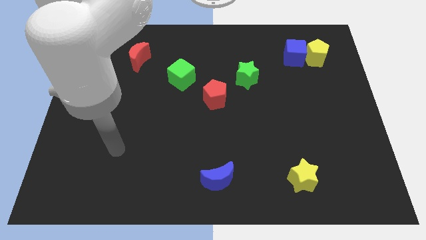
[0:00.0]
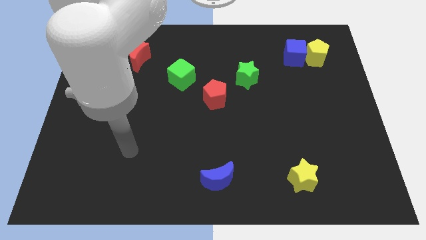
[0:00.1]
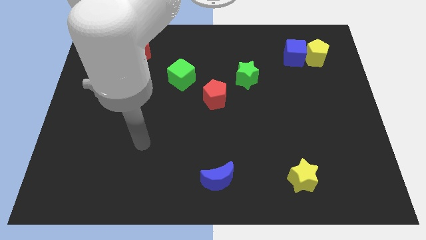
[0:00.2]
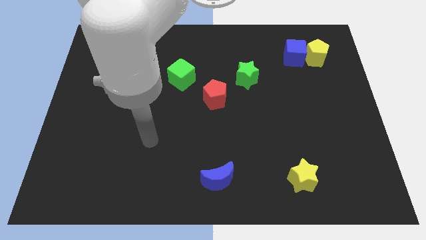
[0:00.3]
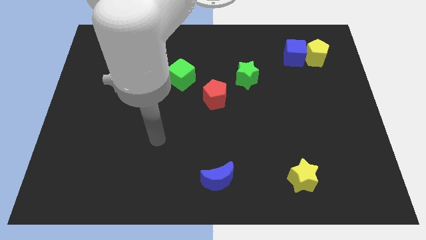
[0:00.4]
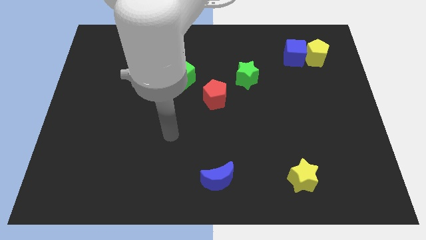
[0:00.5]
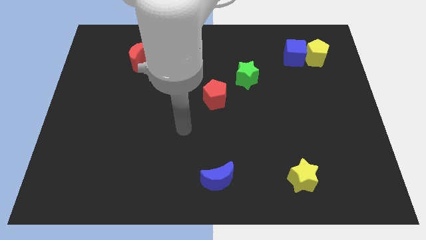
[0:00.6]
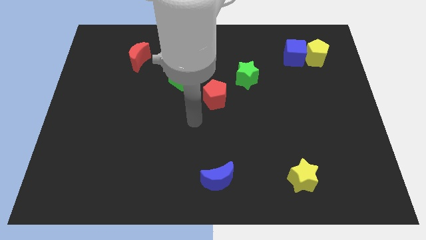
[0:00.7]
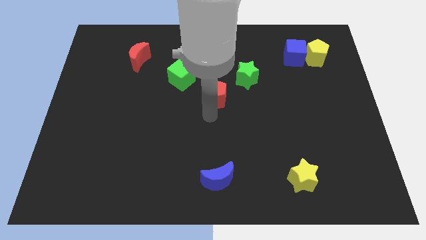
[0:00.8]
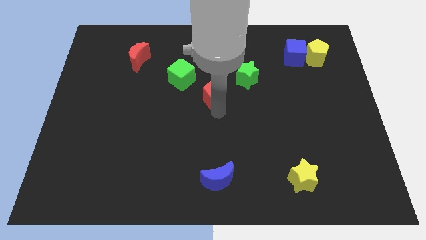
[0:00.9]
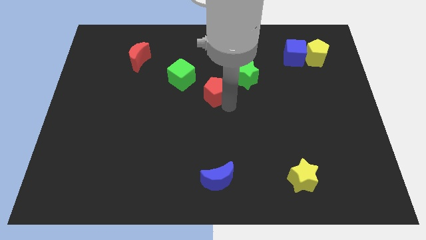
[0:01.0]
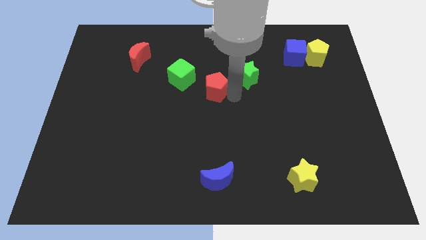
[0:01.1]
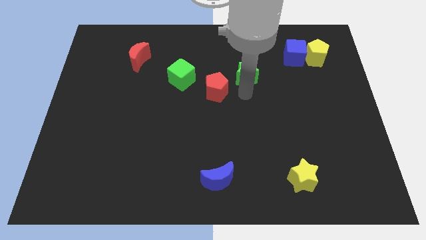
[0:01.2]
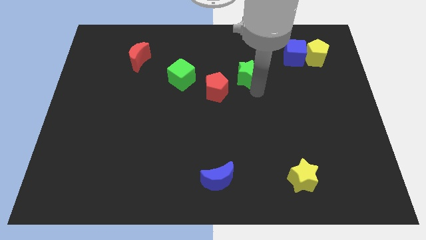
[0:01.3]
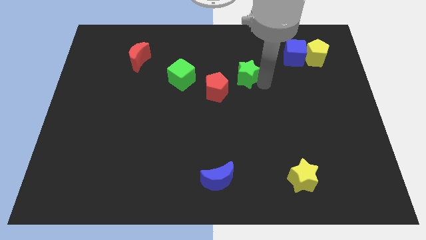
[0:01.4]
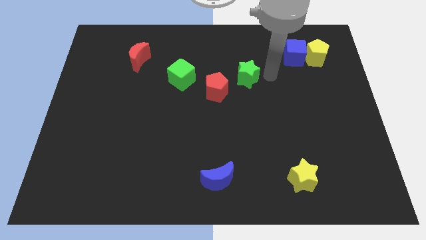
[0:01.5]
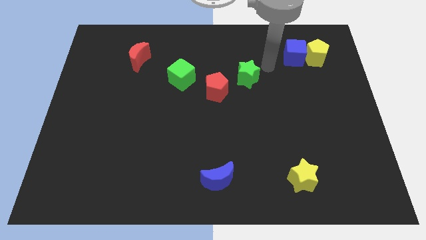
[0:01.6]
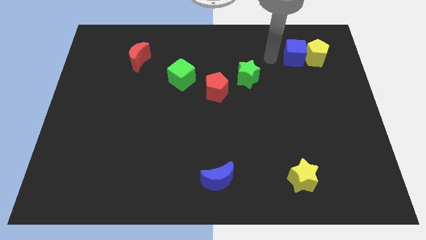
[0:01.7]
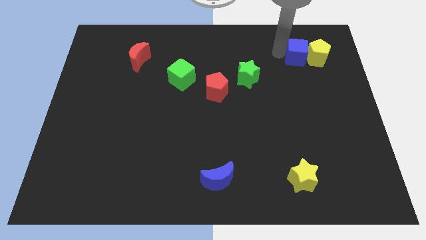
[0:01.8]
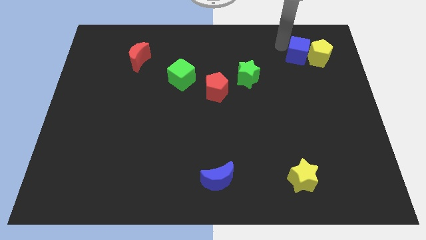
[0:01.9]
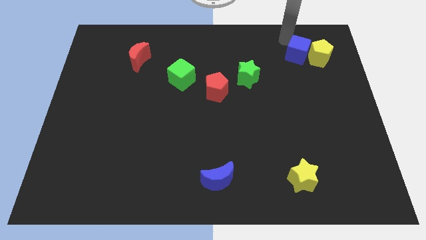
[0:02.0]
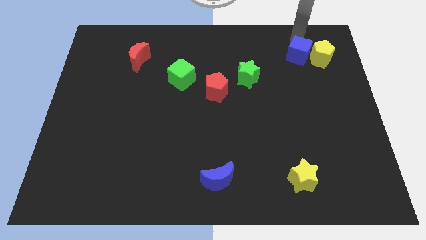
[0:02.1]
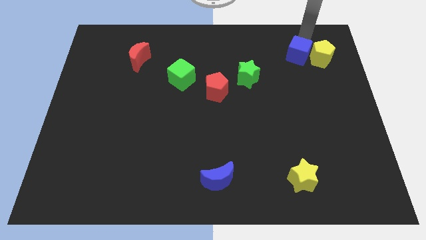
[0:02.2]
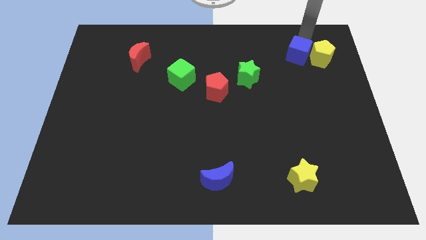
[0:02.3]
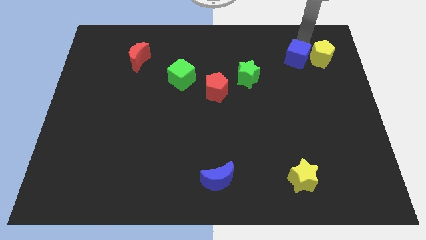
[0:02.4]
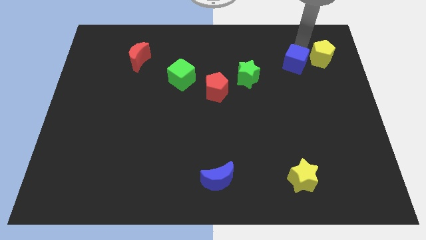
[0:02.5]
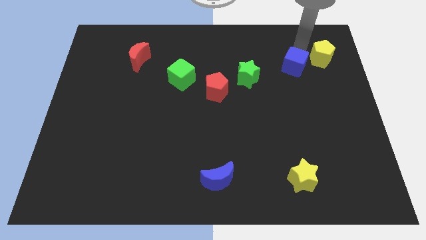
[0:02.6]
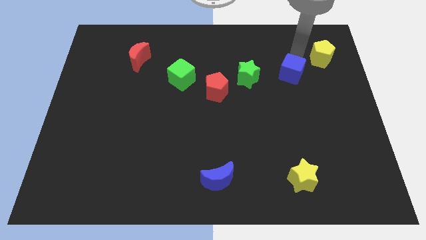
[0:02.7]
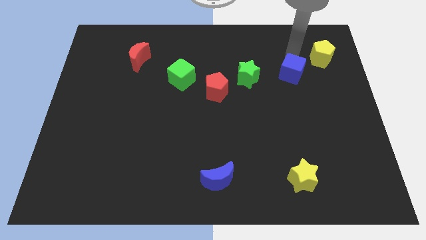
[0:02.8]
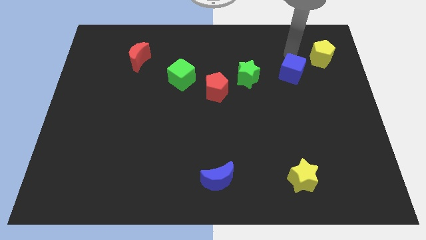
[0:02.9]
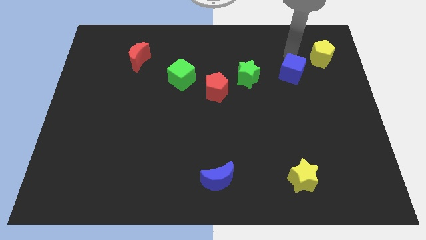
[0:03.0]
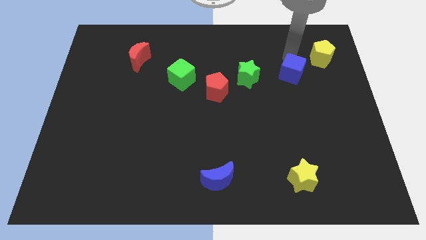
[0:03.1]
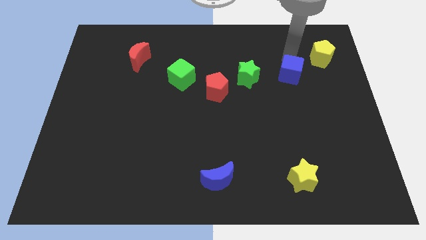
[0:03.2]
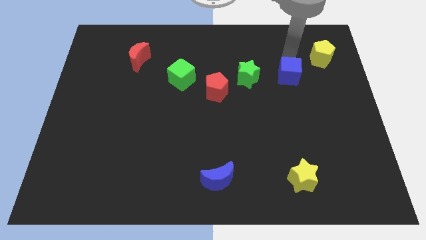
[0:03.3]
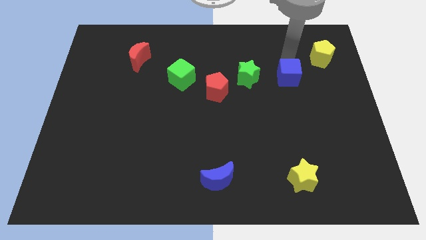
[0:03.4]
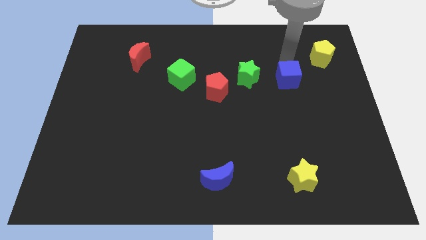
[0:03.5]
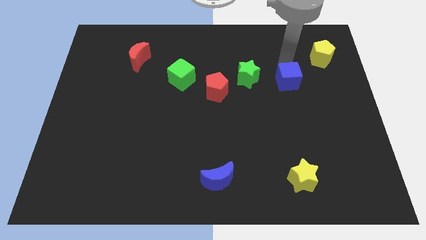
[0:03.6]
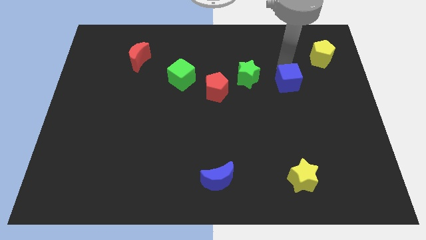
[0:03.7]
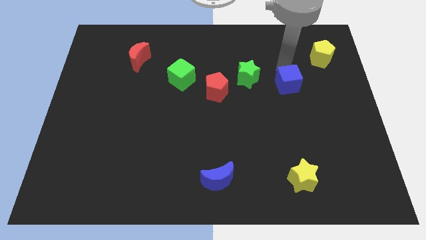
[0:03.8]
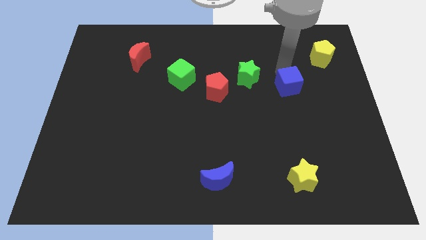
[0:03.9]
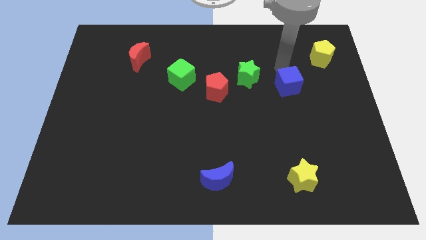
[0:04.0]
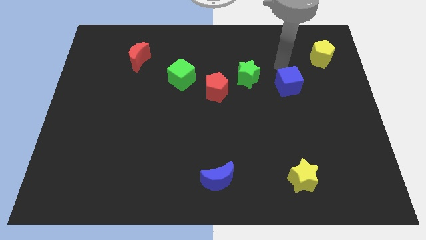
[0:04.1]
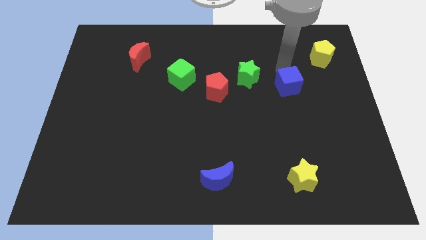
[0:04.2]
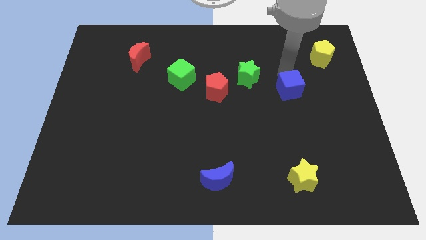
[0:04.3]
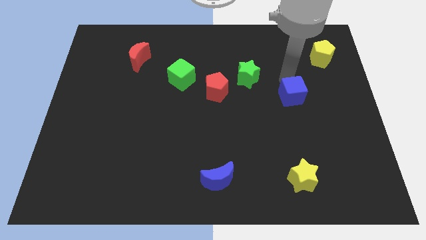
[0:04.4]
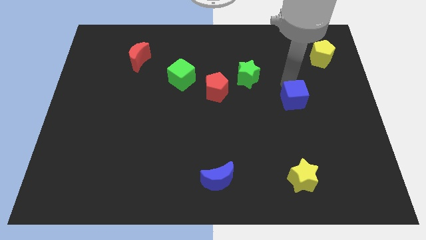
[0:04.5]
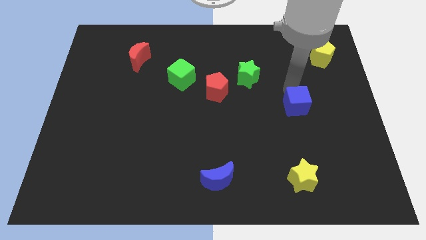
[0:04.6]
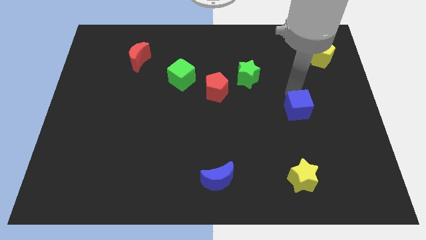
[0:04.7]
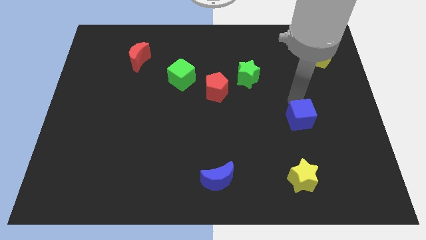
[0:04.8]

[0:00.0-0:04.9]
push the blue cube downwards

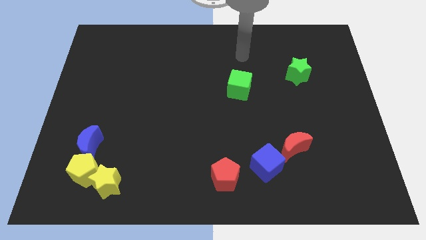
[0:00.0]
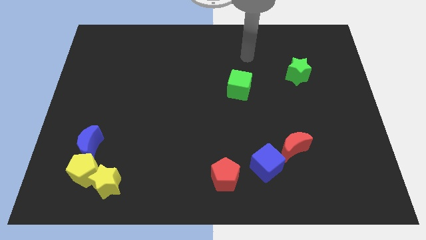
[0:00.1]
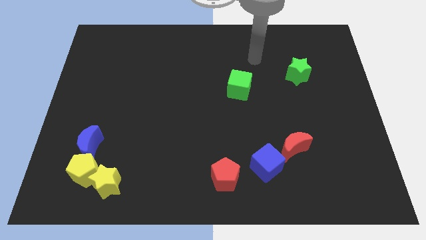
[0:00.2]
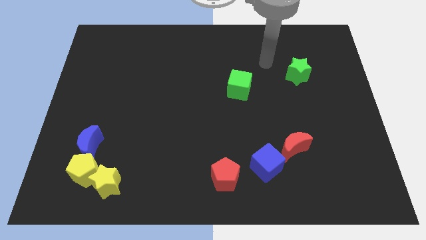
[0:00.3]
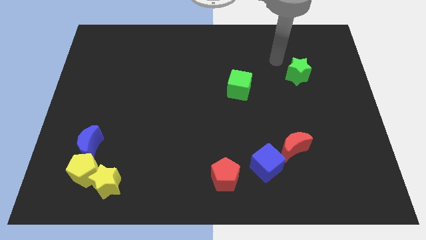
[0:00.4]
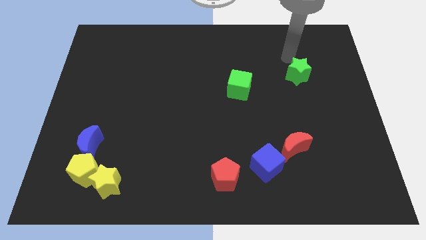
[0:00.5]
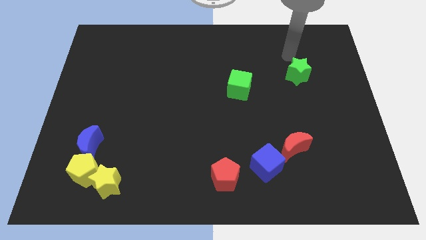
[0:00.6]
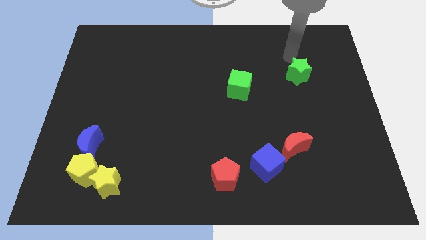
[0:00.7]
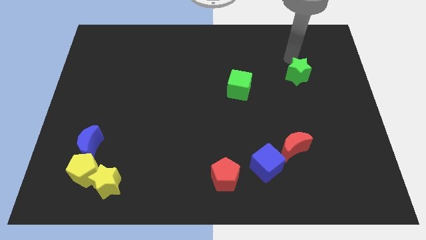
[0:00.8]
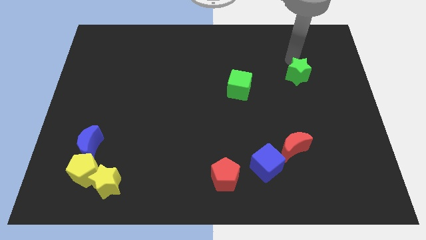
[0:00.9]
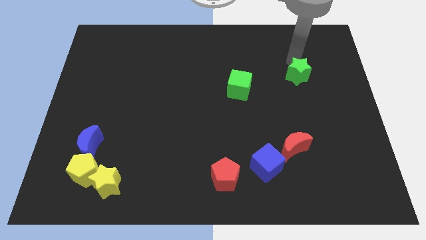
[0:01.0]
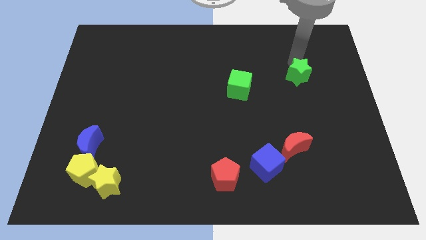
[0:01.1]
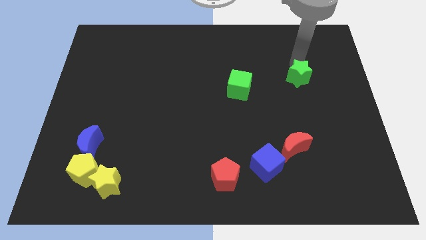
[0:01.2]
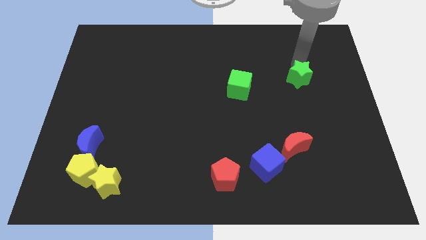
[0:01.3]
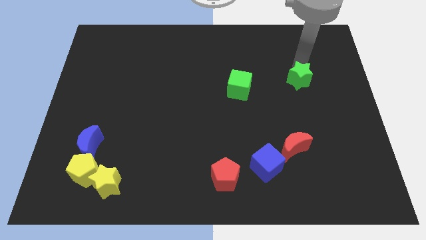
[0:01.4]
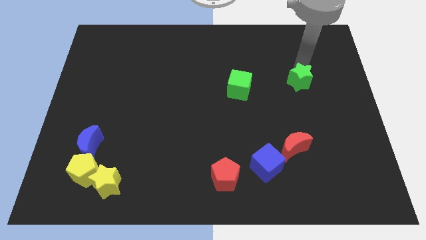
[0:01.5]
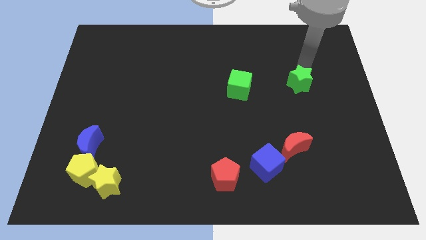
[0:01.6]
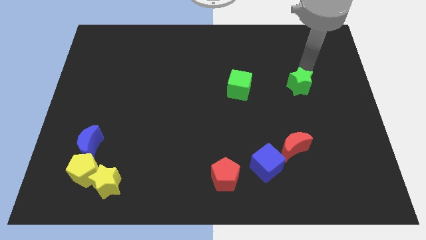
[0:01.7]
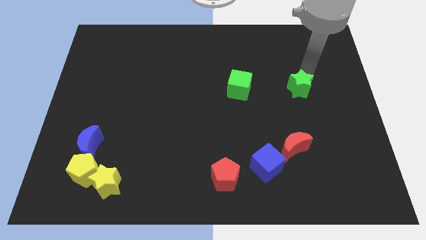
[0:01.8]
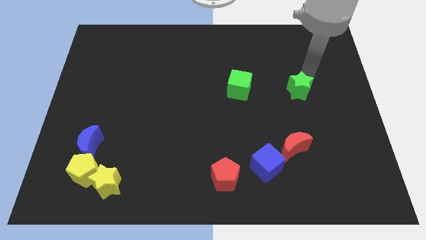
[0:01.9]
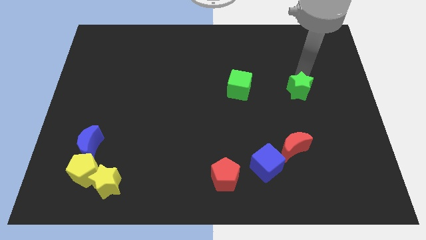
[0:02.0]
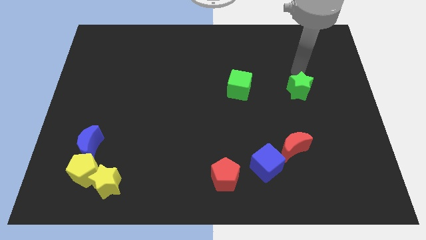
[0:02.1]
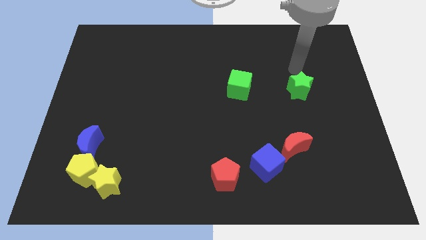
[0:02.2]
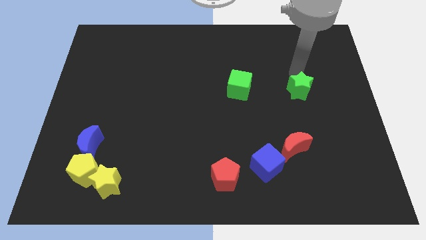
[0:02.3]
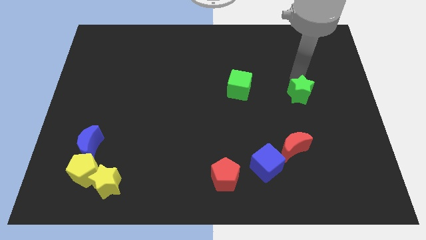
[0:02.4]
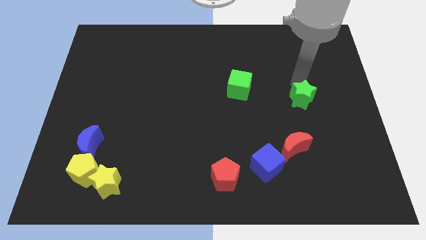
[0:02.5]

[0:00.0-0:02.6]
slightly slide the green star down

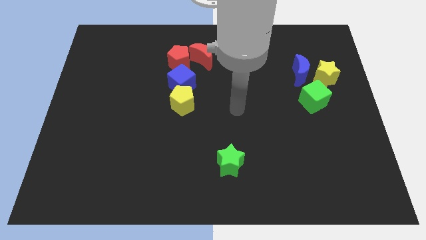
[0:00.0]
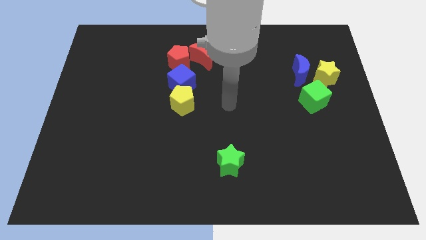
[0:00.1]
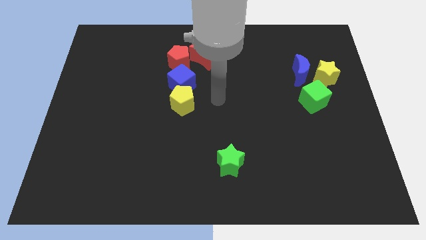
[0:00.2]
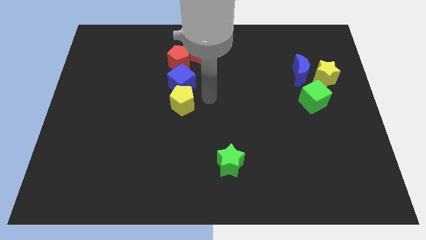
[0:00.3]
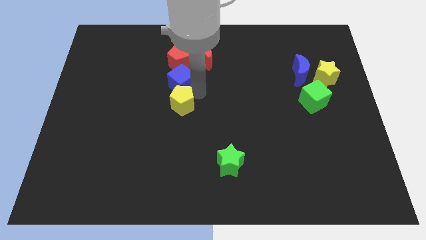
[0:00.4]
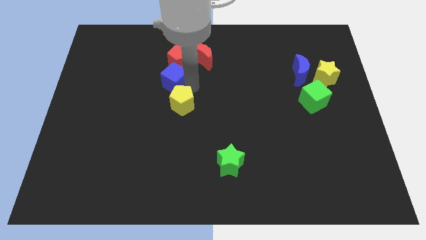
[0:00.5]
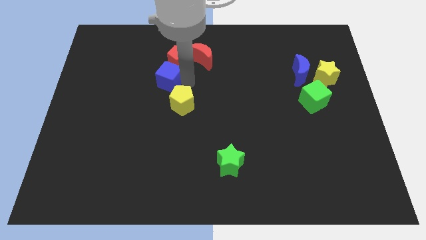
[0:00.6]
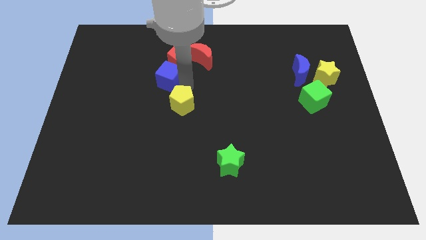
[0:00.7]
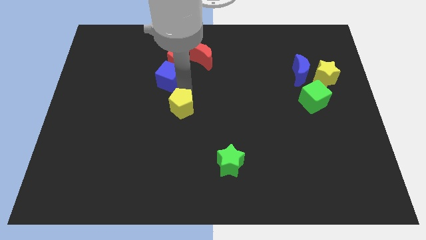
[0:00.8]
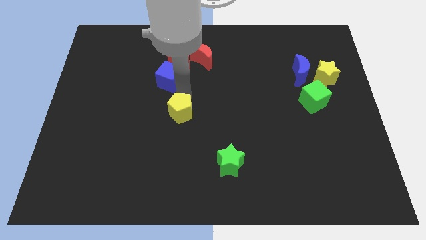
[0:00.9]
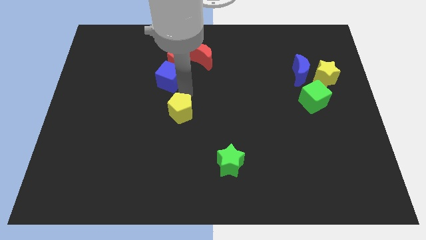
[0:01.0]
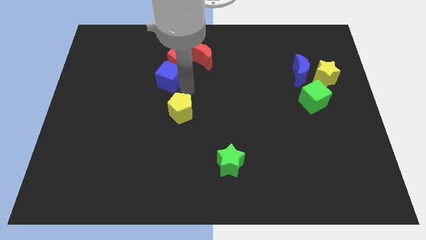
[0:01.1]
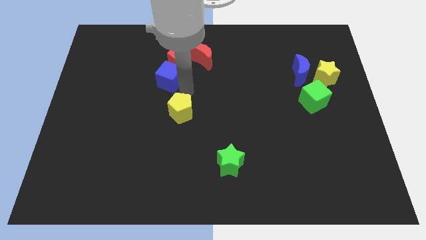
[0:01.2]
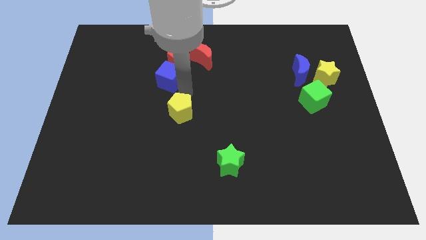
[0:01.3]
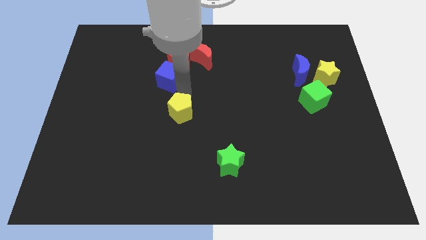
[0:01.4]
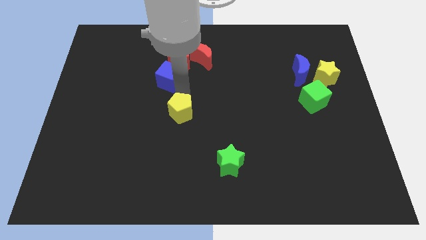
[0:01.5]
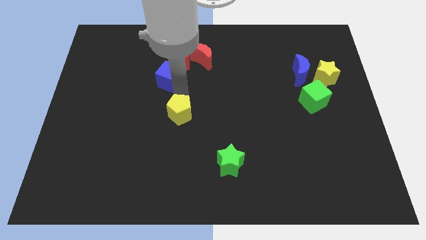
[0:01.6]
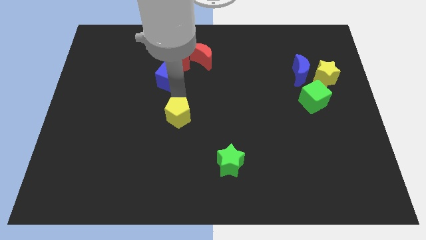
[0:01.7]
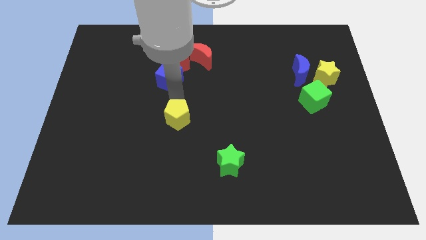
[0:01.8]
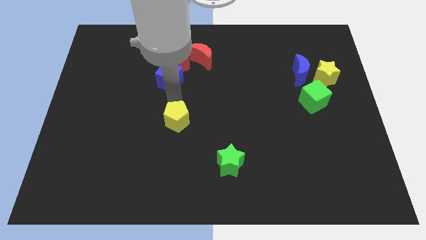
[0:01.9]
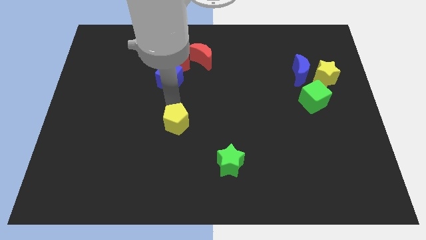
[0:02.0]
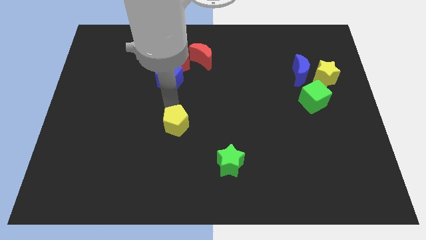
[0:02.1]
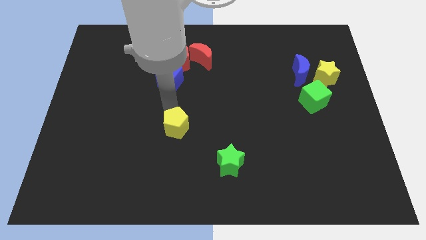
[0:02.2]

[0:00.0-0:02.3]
slide the yellow pentagon a little down
